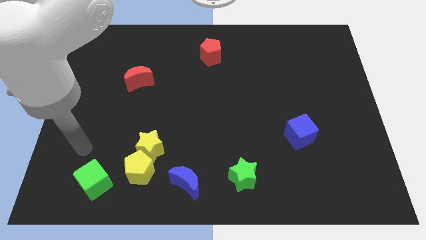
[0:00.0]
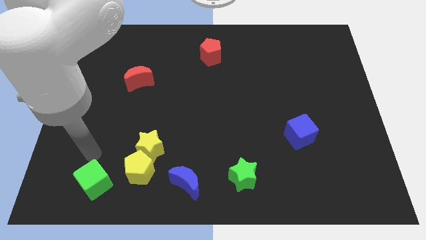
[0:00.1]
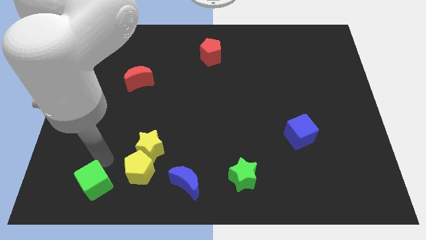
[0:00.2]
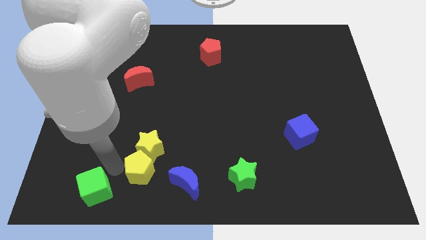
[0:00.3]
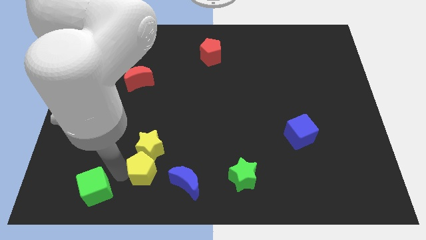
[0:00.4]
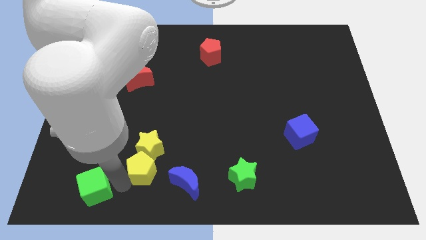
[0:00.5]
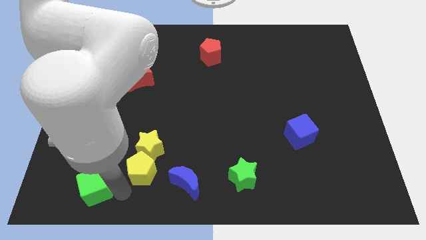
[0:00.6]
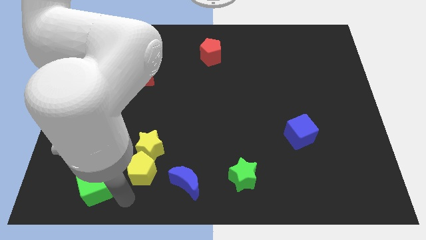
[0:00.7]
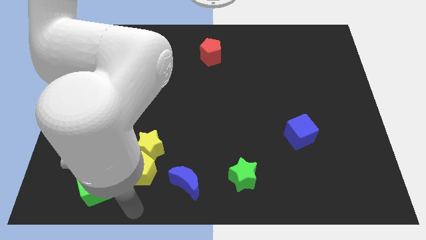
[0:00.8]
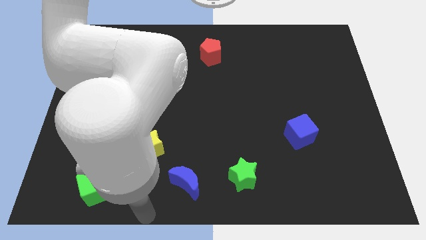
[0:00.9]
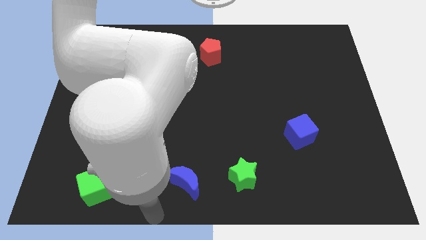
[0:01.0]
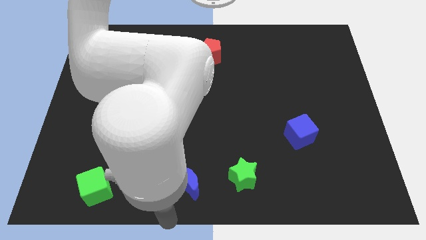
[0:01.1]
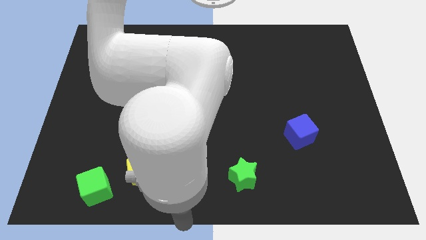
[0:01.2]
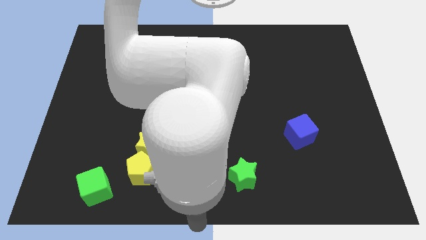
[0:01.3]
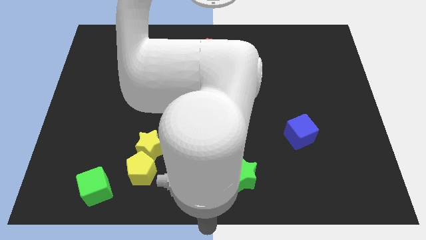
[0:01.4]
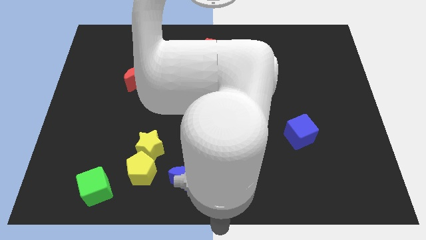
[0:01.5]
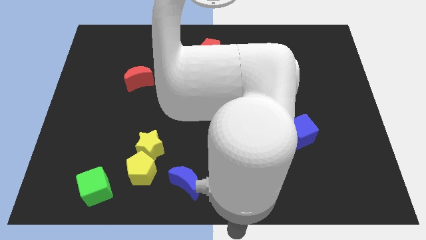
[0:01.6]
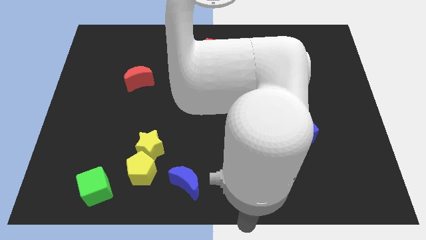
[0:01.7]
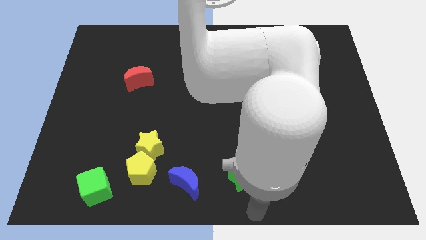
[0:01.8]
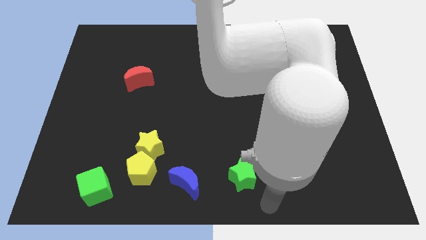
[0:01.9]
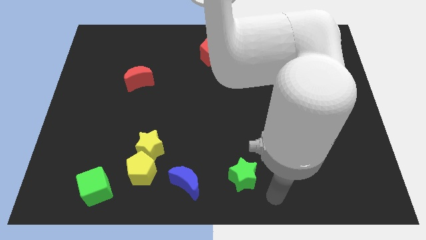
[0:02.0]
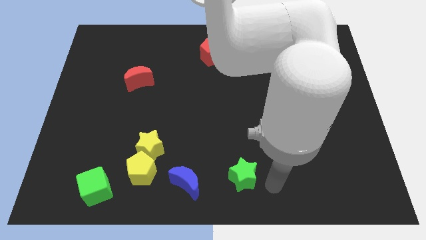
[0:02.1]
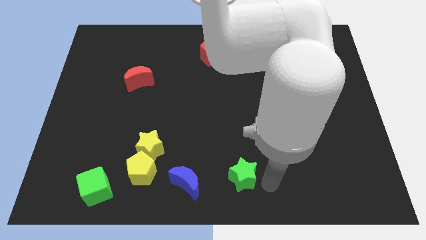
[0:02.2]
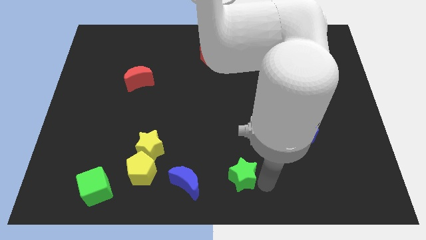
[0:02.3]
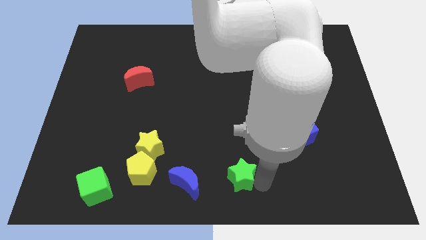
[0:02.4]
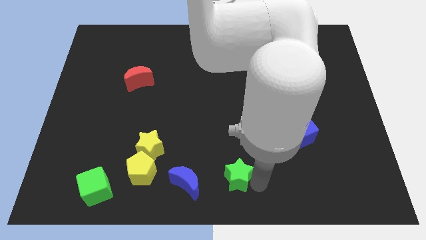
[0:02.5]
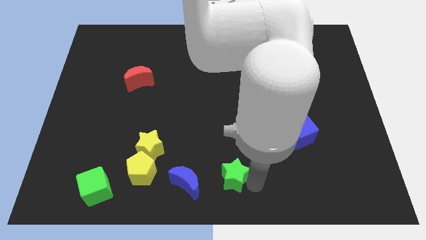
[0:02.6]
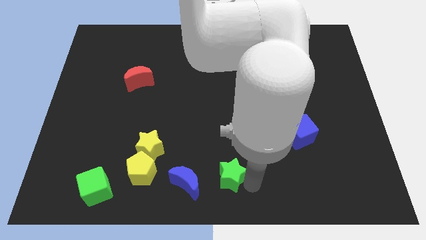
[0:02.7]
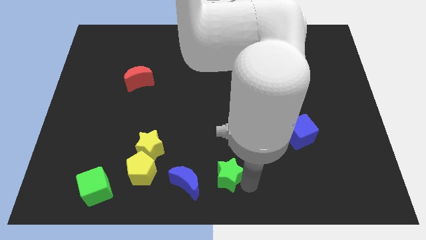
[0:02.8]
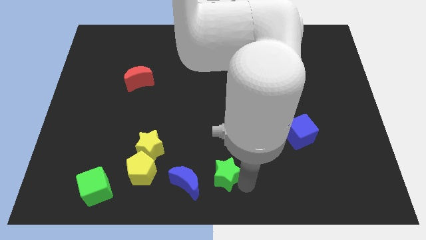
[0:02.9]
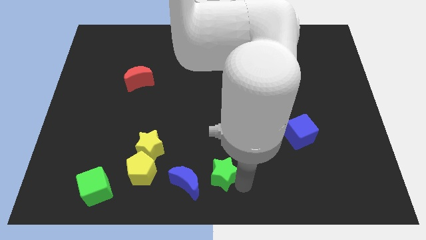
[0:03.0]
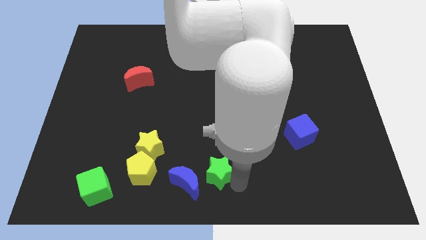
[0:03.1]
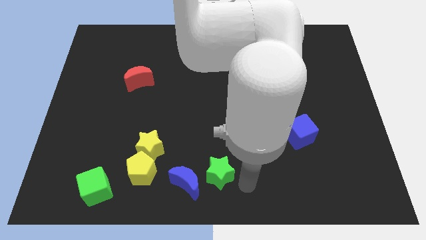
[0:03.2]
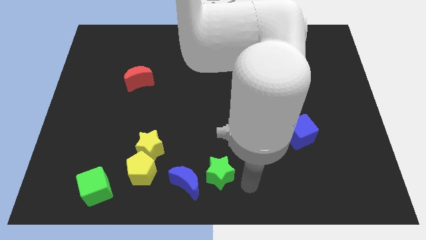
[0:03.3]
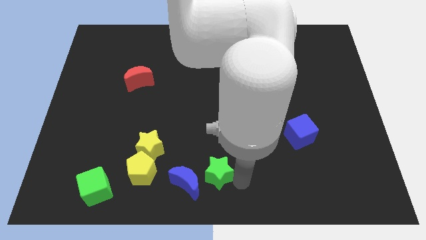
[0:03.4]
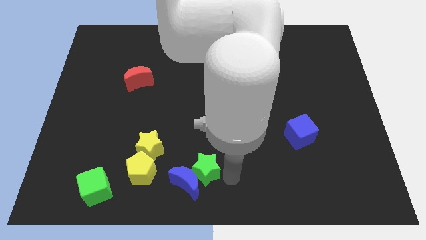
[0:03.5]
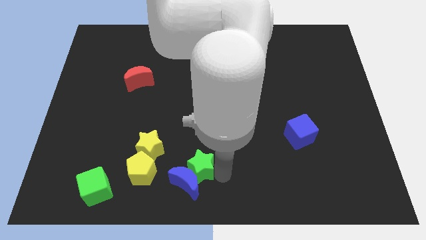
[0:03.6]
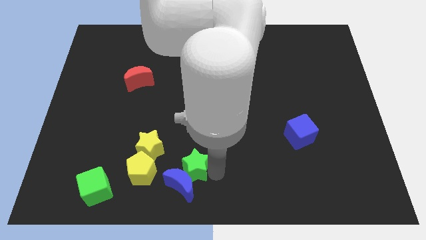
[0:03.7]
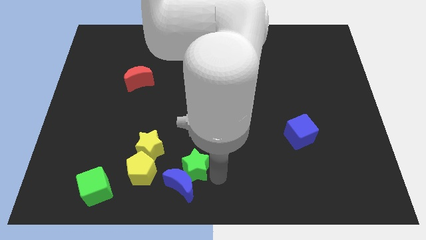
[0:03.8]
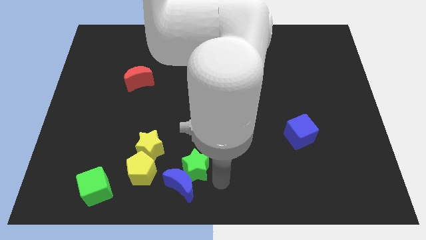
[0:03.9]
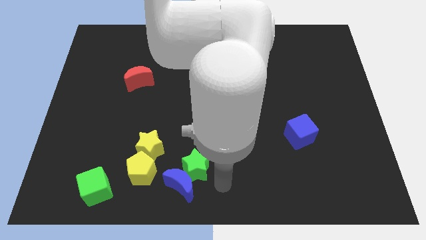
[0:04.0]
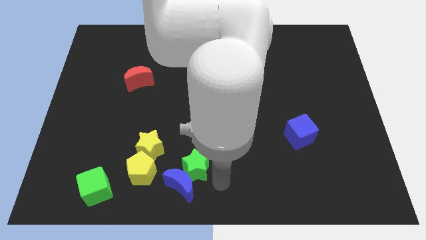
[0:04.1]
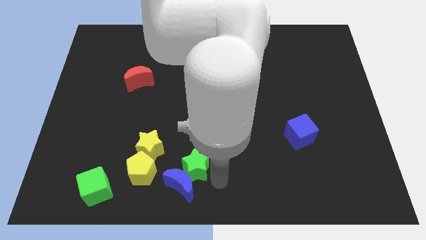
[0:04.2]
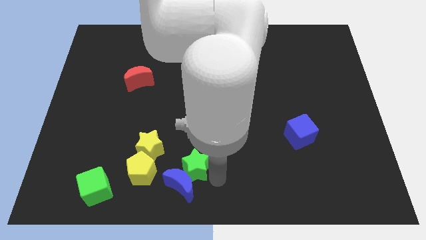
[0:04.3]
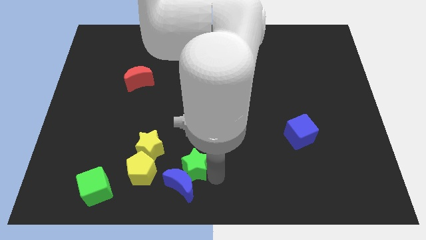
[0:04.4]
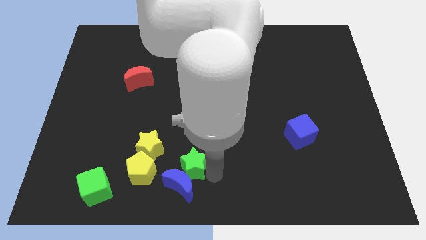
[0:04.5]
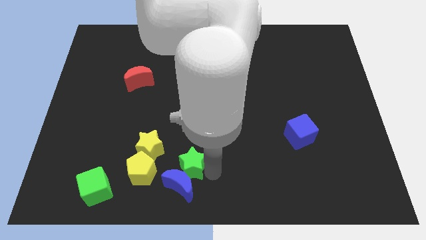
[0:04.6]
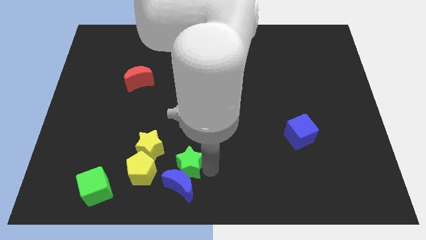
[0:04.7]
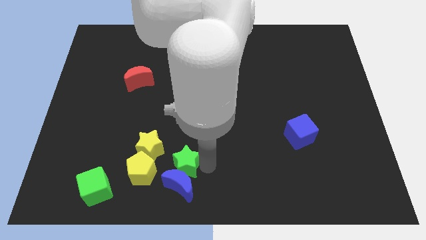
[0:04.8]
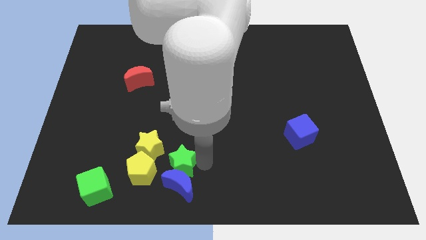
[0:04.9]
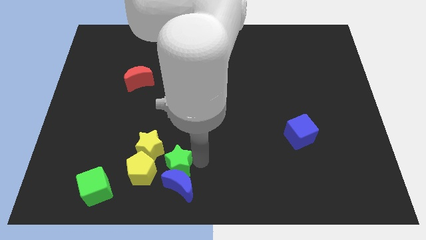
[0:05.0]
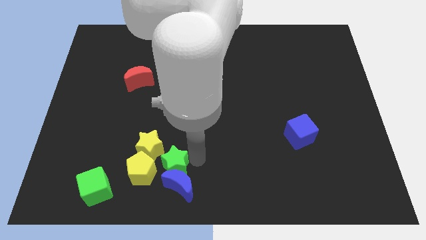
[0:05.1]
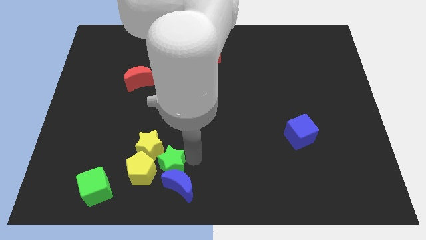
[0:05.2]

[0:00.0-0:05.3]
put the green star to the yellow star

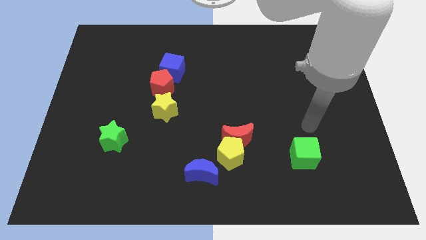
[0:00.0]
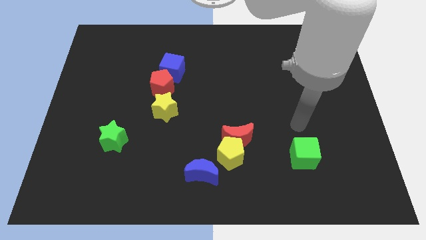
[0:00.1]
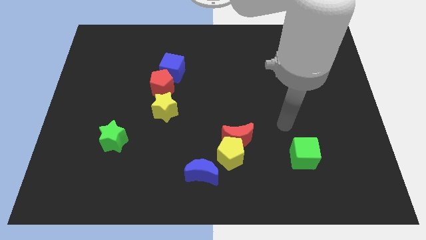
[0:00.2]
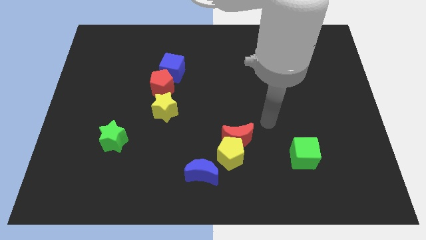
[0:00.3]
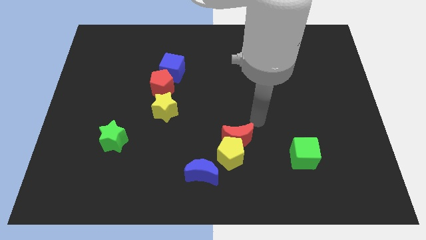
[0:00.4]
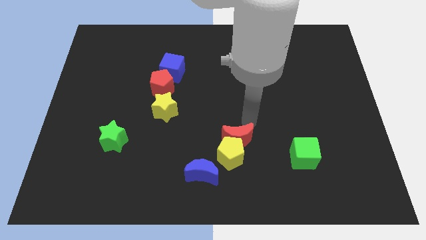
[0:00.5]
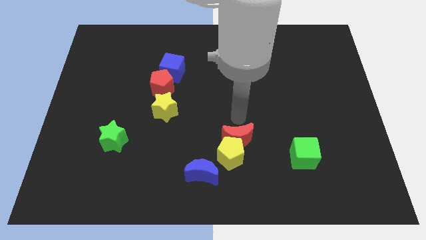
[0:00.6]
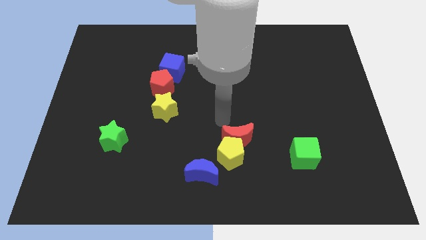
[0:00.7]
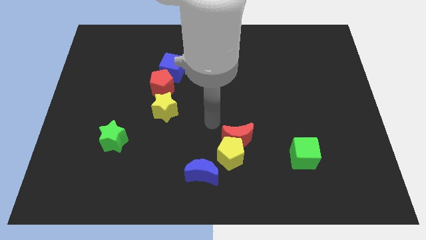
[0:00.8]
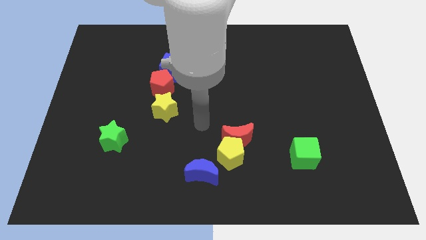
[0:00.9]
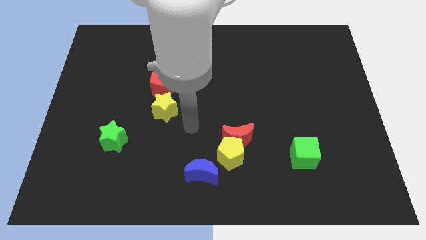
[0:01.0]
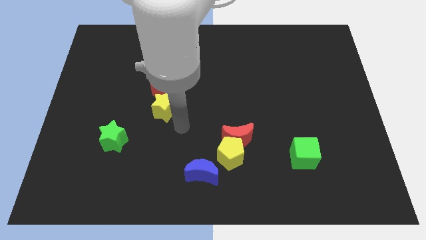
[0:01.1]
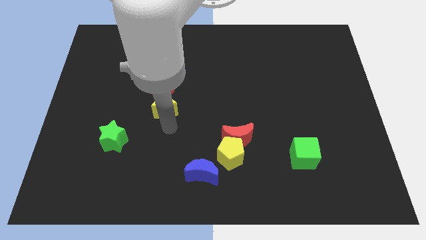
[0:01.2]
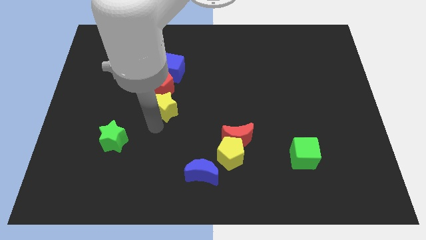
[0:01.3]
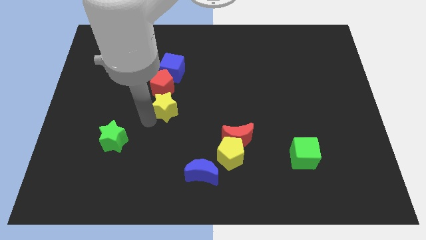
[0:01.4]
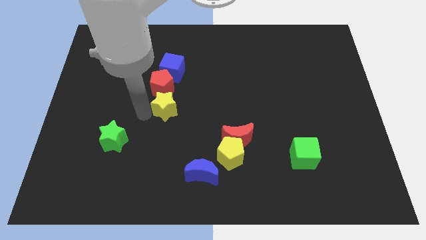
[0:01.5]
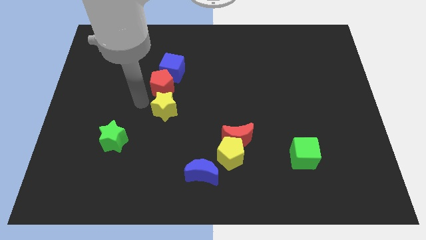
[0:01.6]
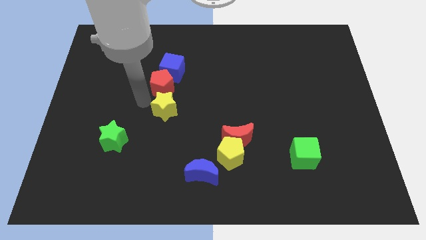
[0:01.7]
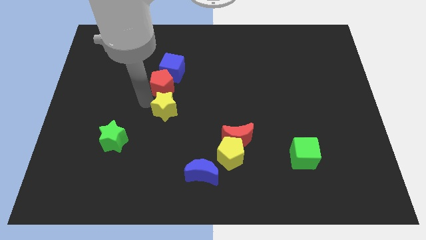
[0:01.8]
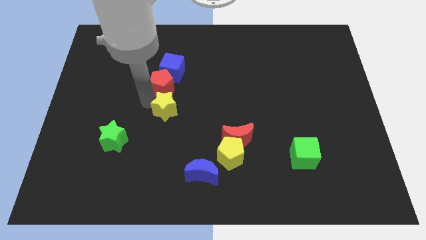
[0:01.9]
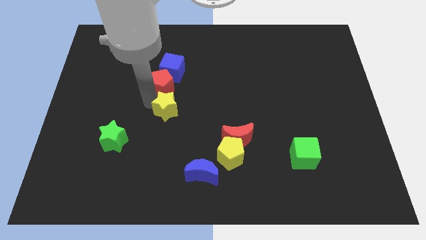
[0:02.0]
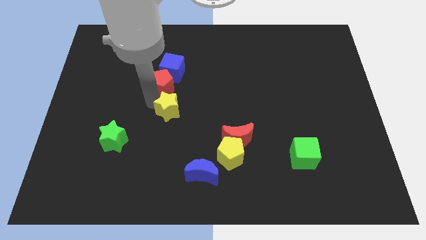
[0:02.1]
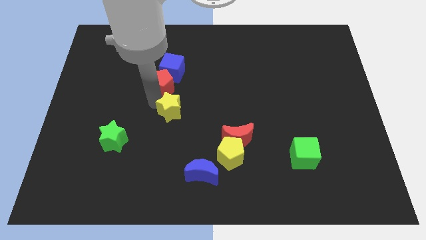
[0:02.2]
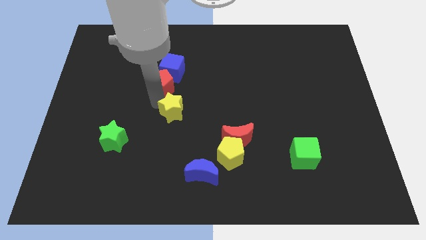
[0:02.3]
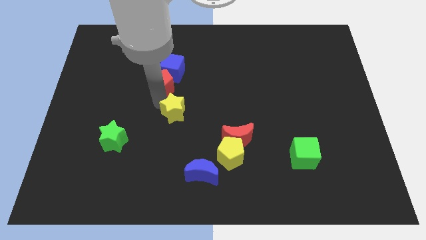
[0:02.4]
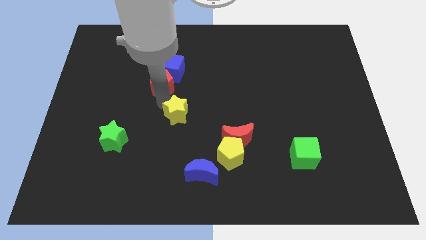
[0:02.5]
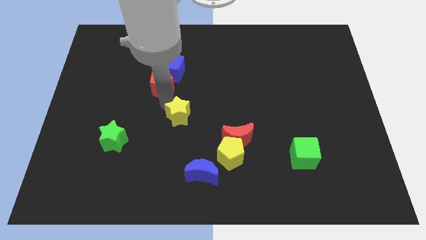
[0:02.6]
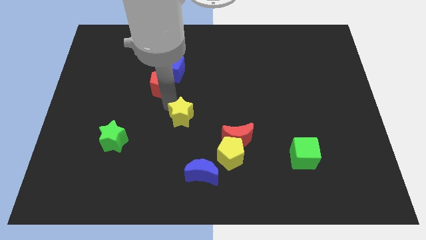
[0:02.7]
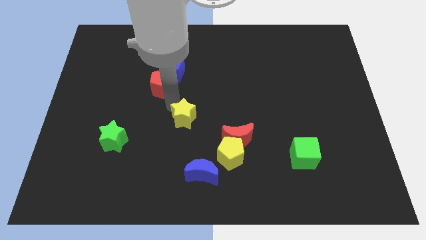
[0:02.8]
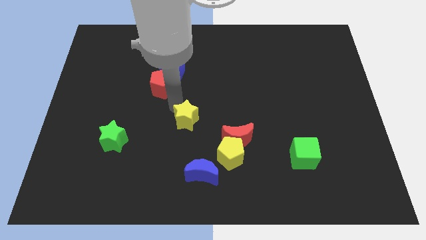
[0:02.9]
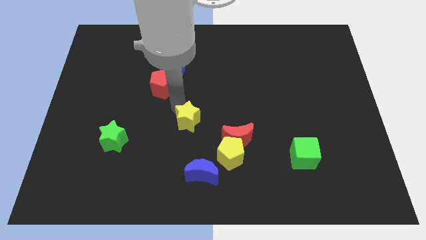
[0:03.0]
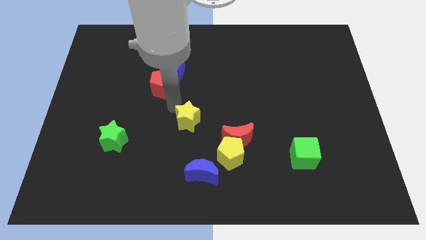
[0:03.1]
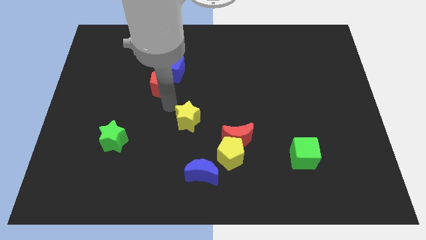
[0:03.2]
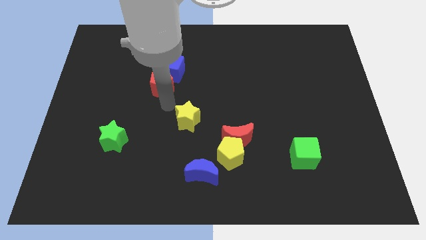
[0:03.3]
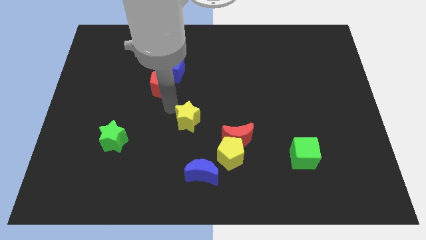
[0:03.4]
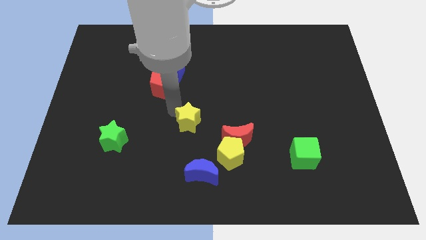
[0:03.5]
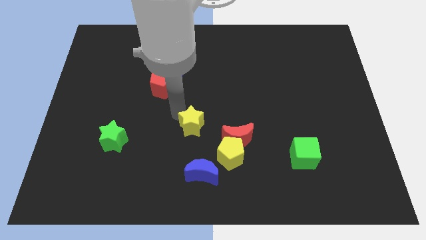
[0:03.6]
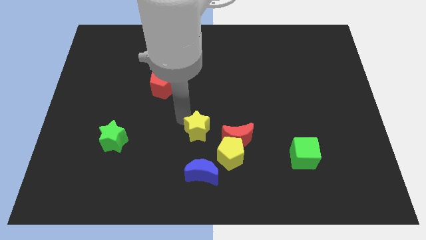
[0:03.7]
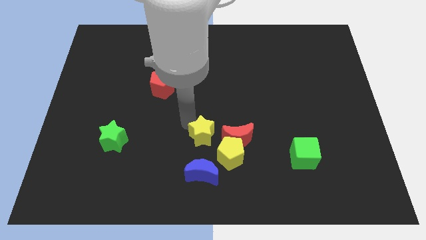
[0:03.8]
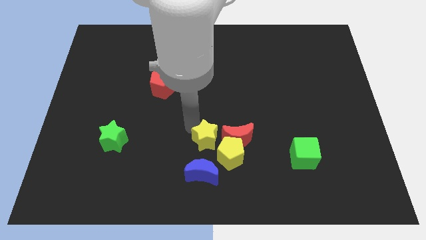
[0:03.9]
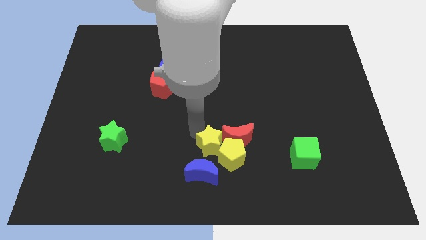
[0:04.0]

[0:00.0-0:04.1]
move the yellow star to the yellow pentagon
